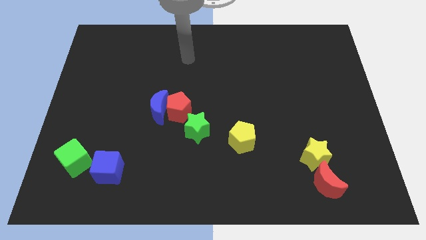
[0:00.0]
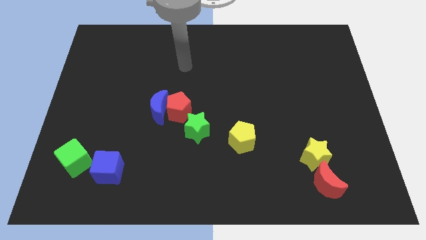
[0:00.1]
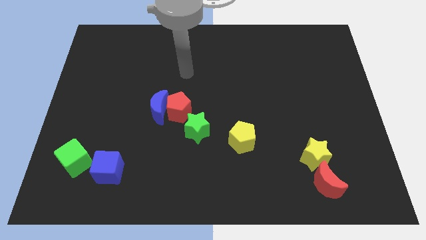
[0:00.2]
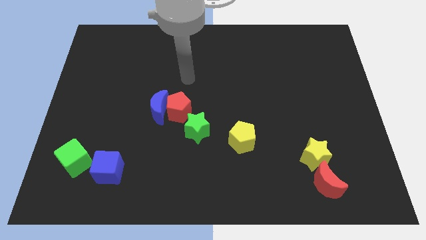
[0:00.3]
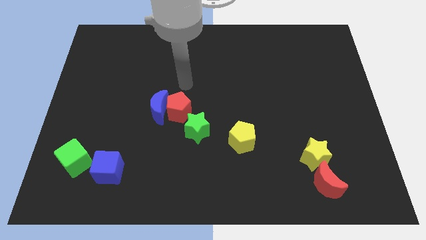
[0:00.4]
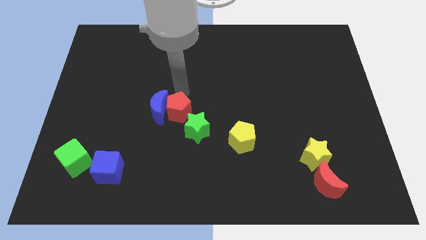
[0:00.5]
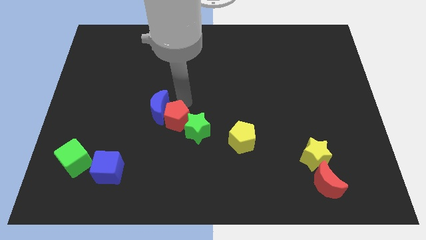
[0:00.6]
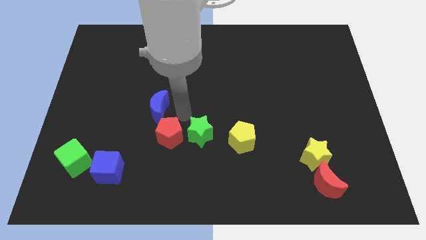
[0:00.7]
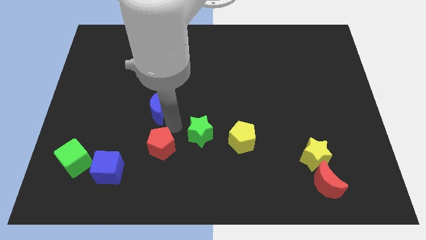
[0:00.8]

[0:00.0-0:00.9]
pull the blue moon apart from the red pentagon

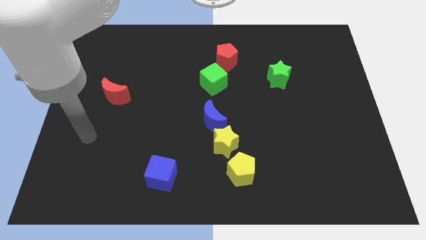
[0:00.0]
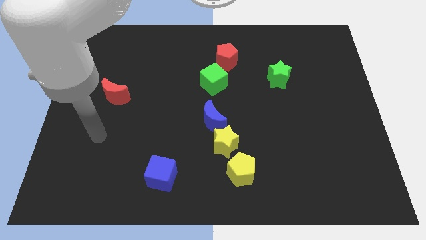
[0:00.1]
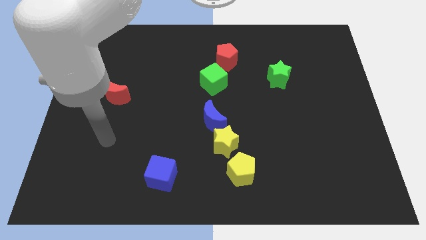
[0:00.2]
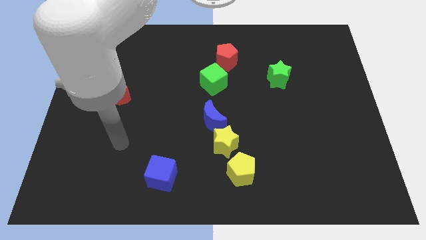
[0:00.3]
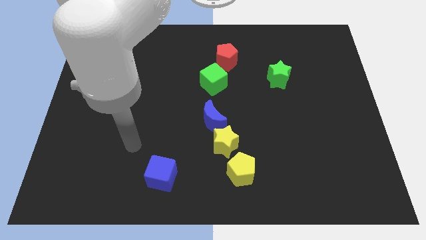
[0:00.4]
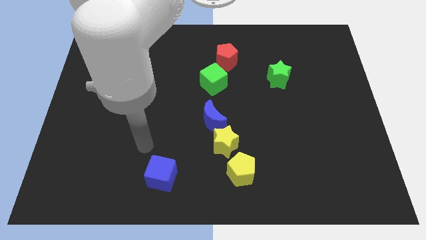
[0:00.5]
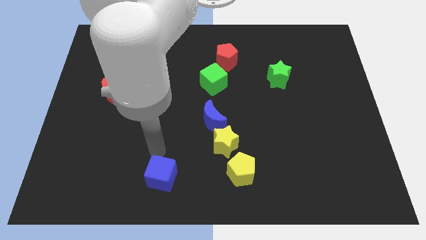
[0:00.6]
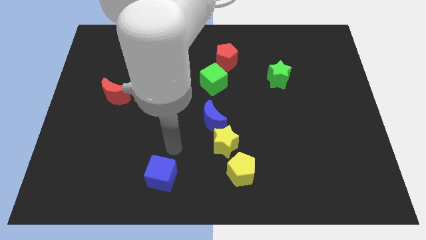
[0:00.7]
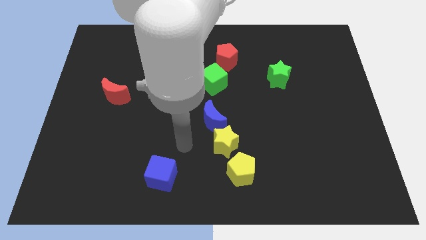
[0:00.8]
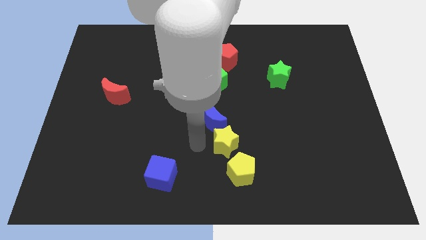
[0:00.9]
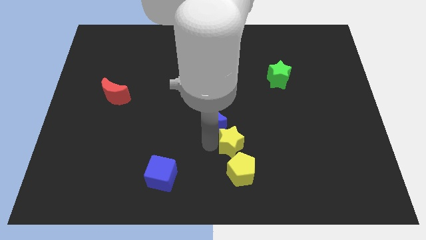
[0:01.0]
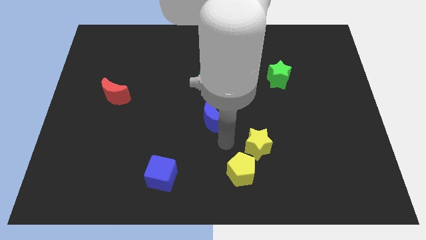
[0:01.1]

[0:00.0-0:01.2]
separate the blue moon from the yellow star

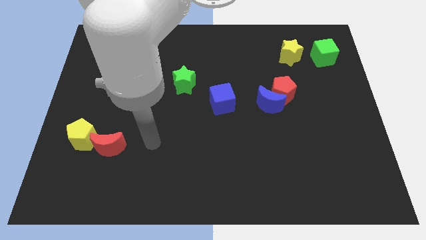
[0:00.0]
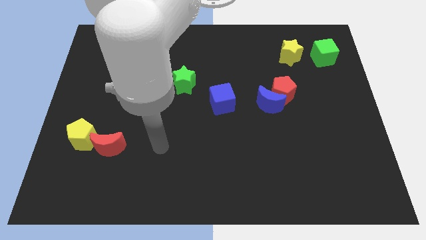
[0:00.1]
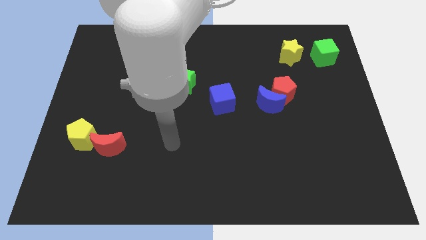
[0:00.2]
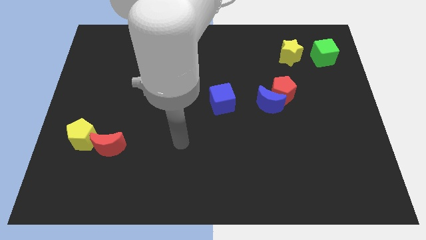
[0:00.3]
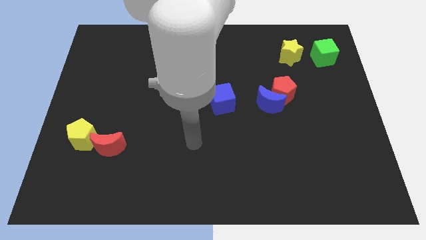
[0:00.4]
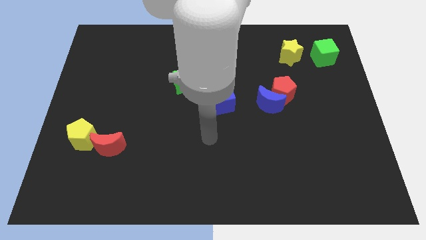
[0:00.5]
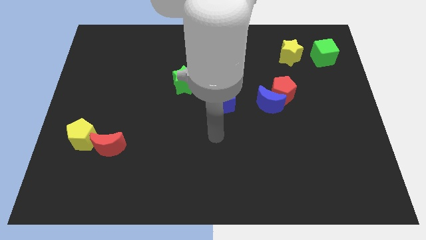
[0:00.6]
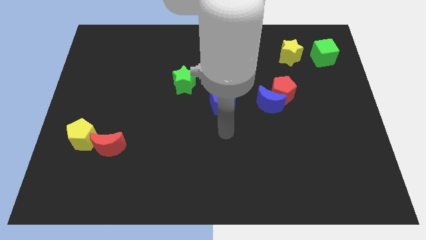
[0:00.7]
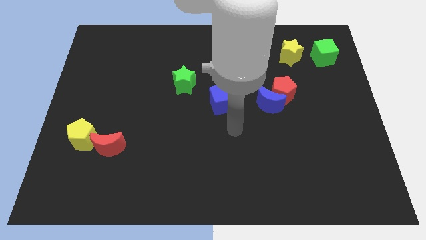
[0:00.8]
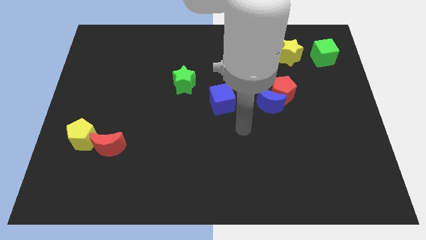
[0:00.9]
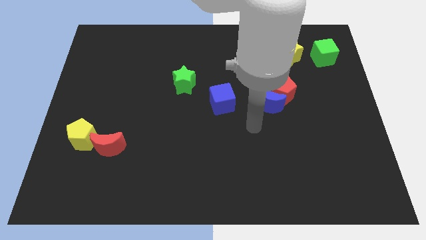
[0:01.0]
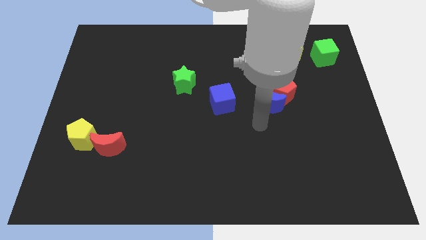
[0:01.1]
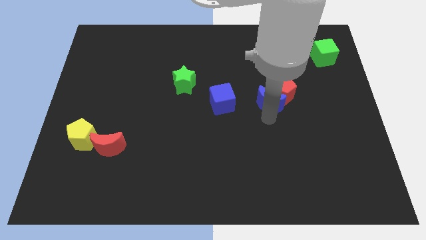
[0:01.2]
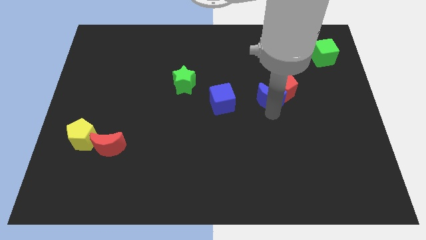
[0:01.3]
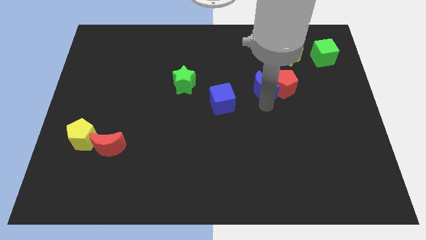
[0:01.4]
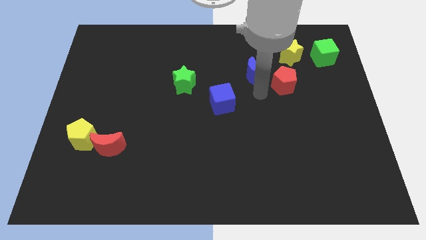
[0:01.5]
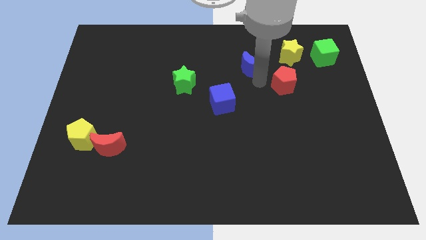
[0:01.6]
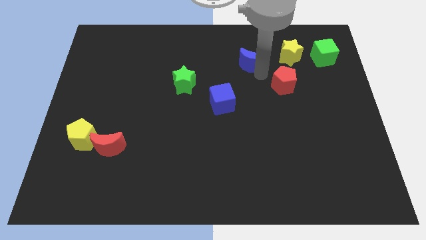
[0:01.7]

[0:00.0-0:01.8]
move the red pentagon away from the blue moon

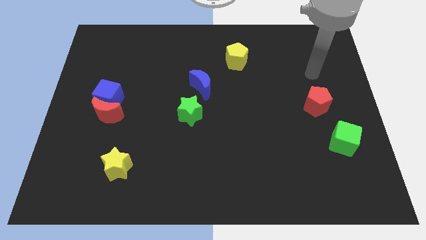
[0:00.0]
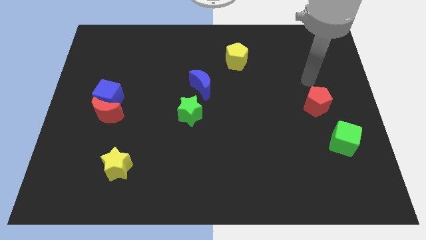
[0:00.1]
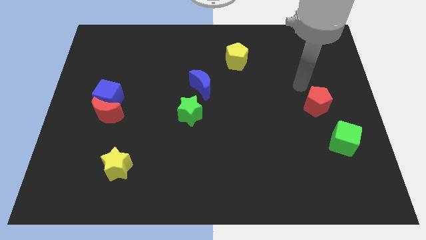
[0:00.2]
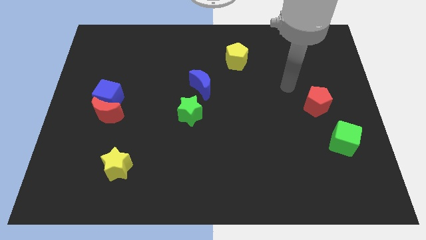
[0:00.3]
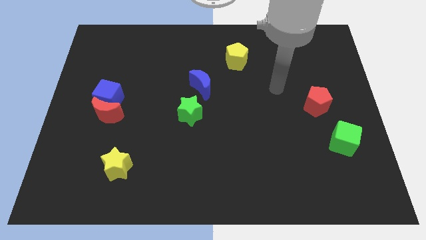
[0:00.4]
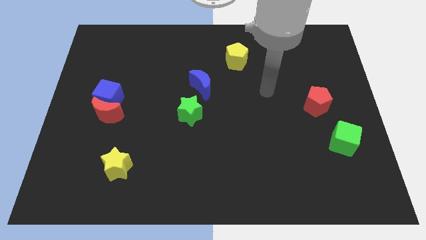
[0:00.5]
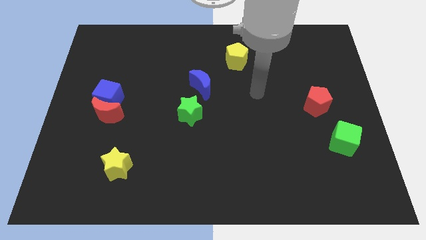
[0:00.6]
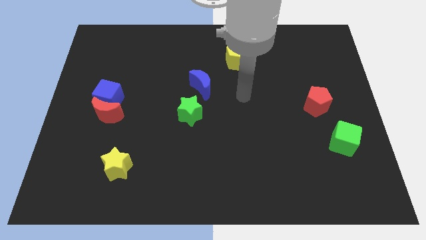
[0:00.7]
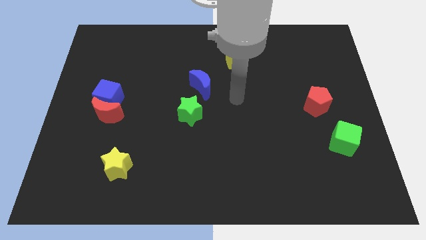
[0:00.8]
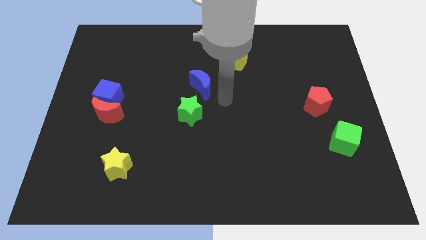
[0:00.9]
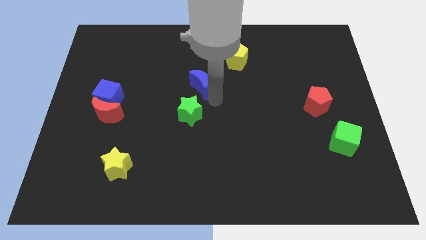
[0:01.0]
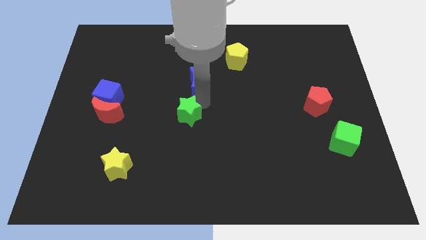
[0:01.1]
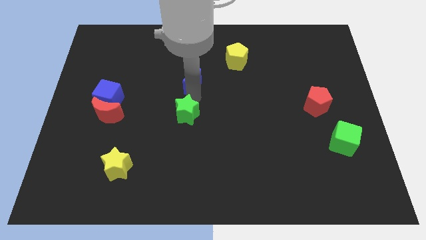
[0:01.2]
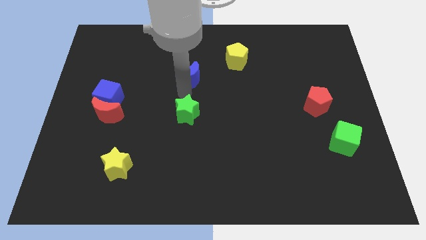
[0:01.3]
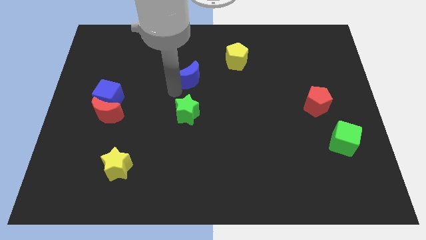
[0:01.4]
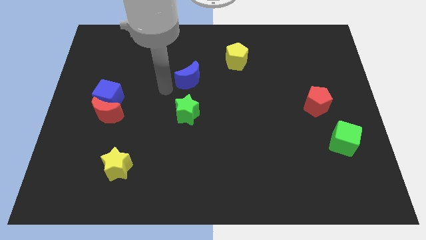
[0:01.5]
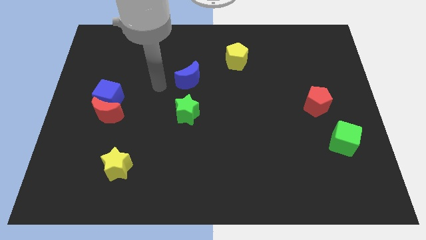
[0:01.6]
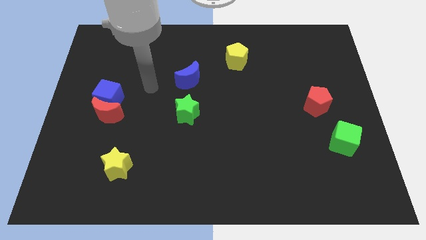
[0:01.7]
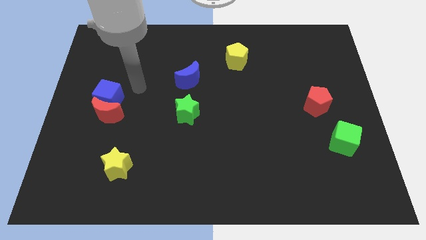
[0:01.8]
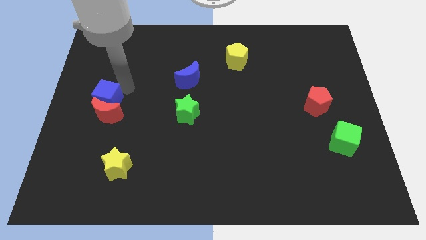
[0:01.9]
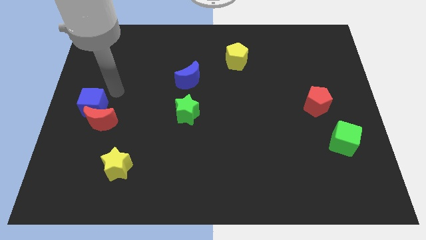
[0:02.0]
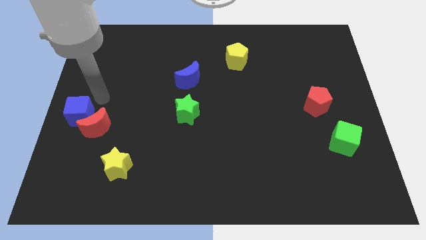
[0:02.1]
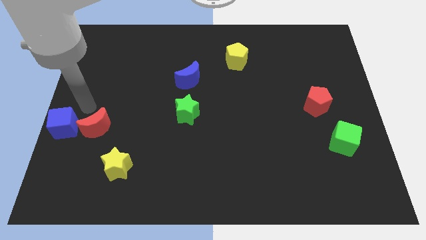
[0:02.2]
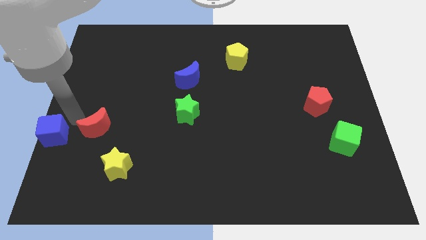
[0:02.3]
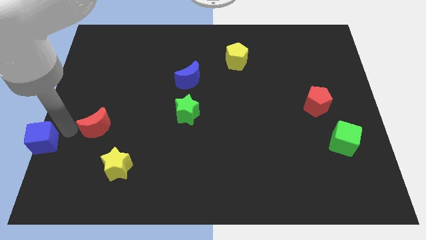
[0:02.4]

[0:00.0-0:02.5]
move the red moon away from the blue cube

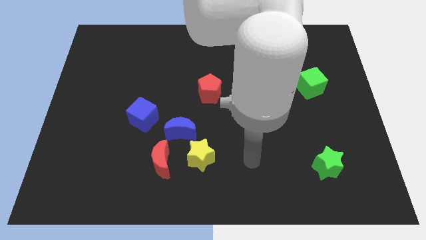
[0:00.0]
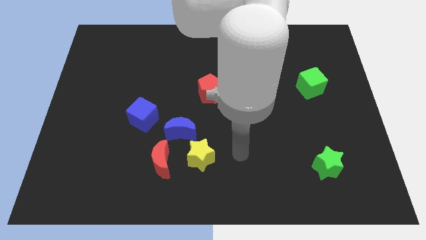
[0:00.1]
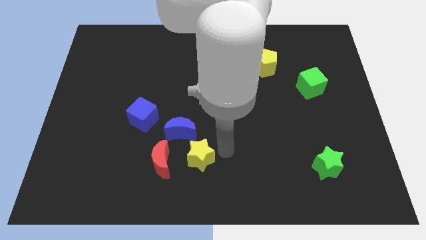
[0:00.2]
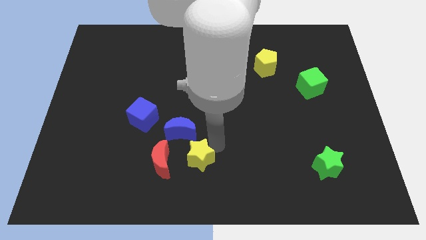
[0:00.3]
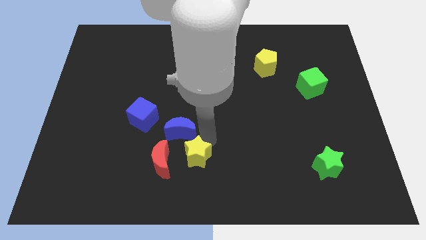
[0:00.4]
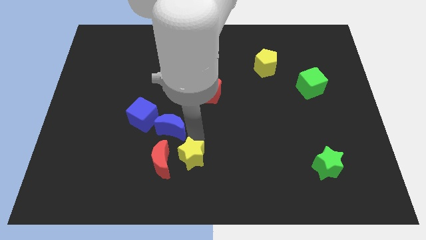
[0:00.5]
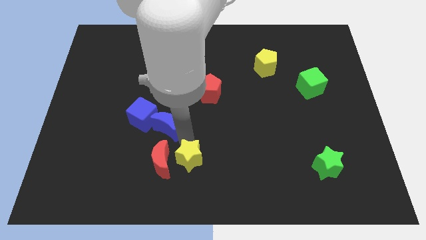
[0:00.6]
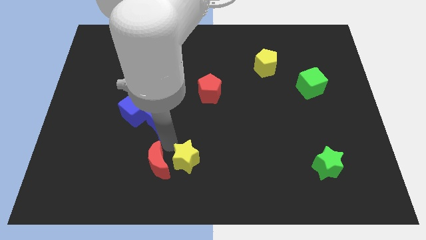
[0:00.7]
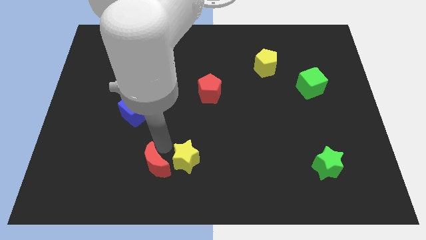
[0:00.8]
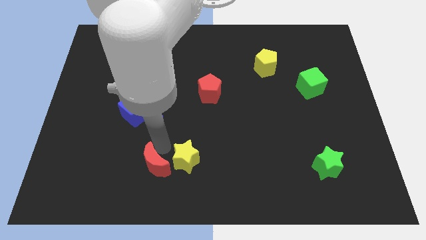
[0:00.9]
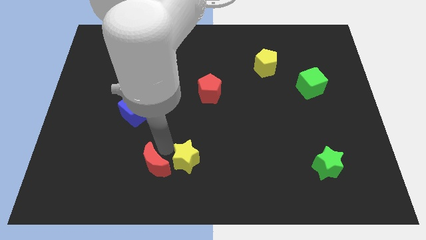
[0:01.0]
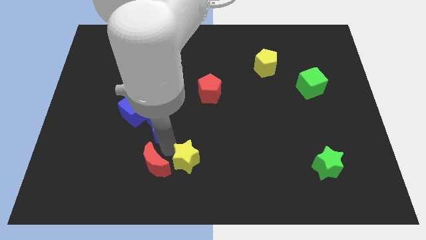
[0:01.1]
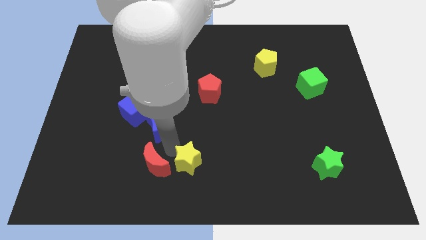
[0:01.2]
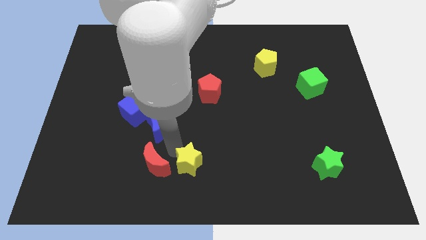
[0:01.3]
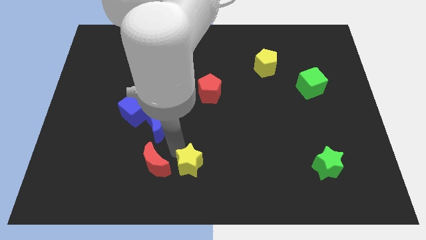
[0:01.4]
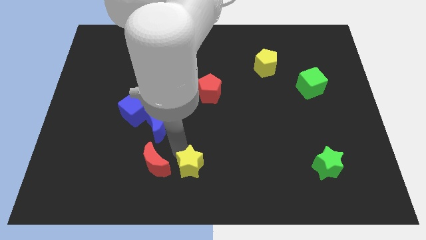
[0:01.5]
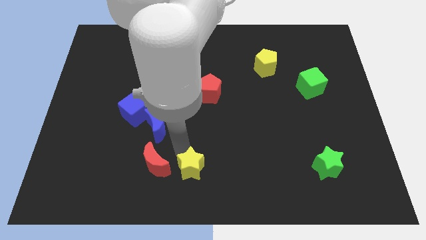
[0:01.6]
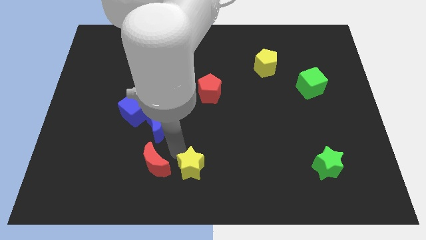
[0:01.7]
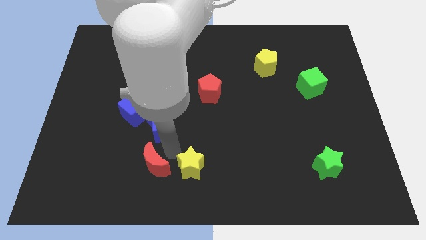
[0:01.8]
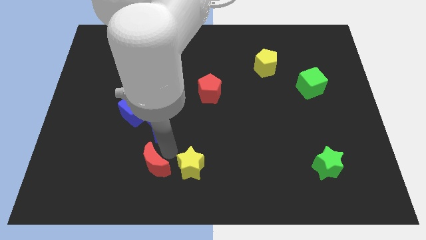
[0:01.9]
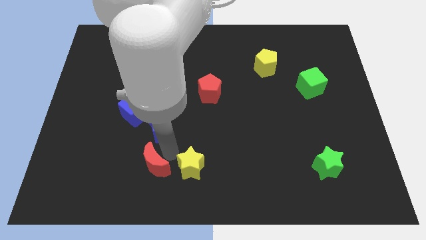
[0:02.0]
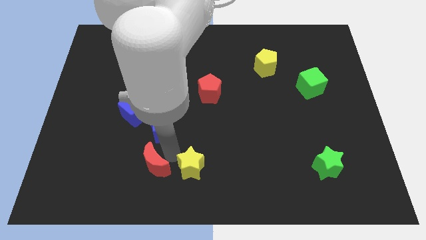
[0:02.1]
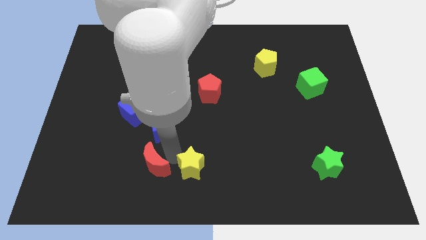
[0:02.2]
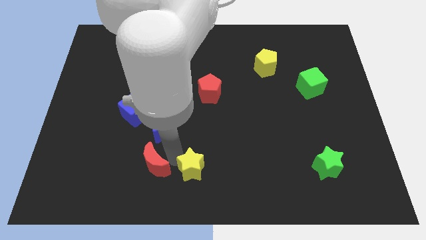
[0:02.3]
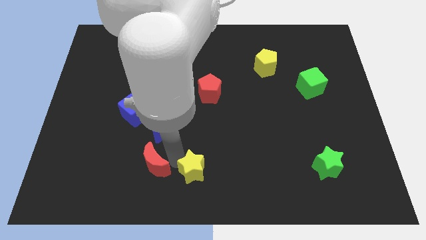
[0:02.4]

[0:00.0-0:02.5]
separate the yellow star from the blue moon and red moon

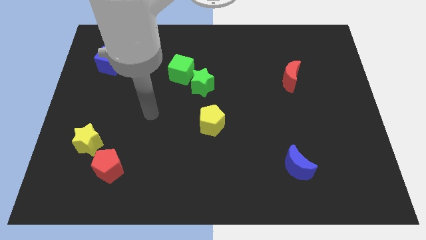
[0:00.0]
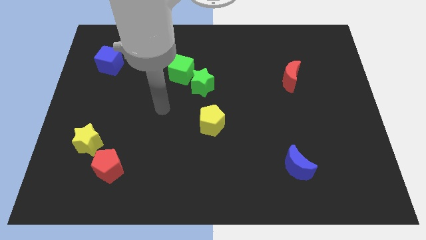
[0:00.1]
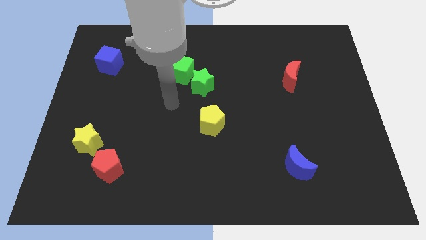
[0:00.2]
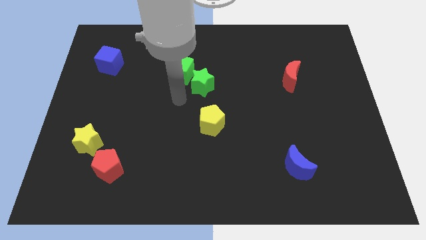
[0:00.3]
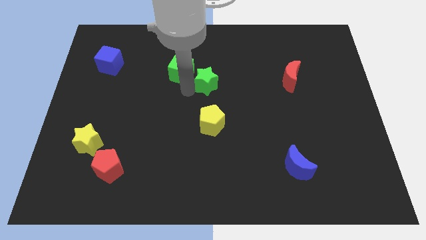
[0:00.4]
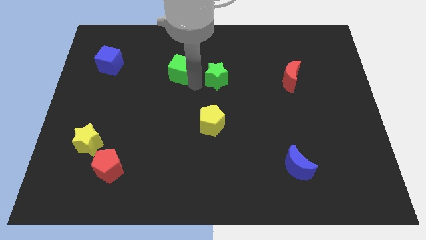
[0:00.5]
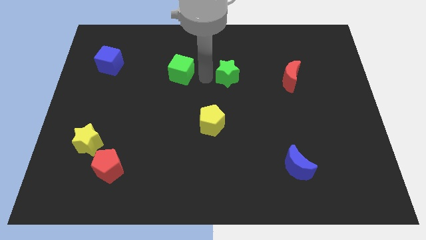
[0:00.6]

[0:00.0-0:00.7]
separate the green cube from the green star
